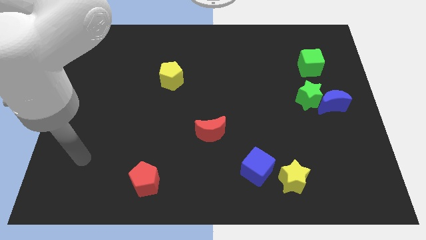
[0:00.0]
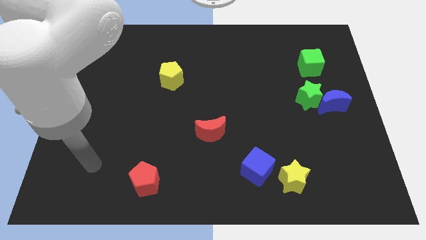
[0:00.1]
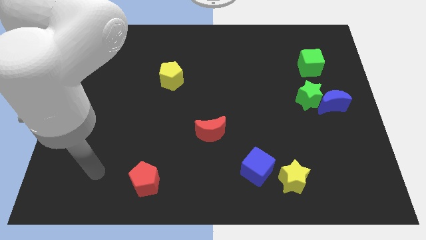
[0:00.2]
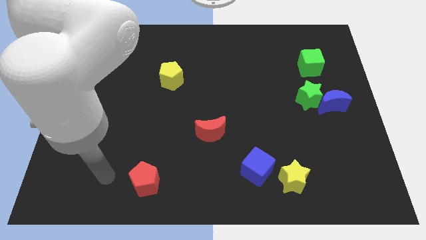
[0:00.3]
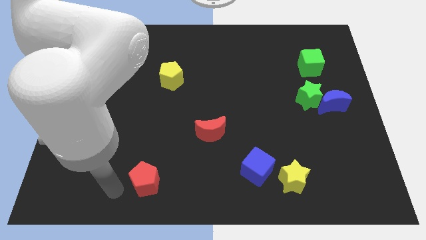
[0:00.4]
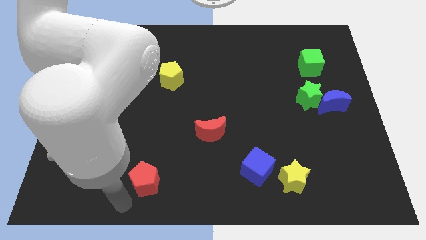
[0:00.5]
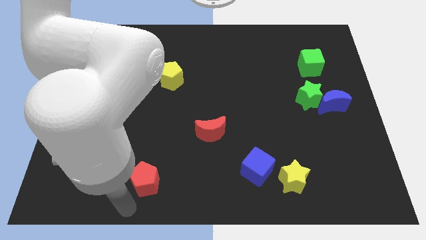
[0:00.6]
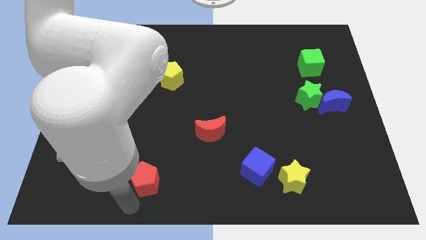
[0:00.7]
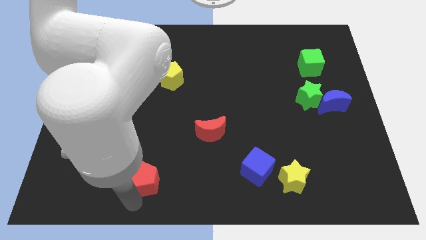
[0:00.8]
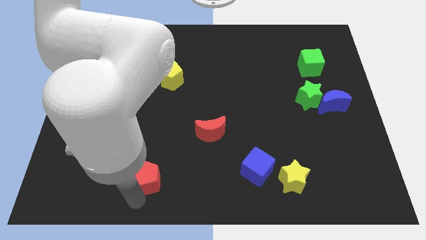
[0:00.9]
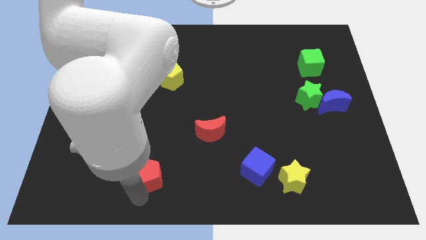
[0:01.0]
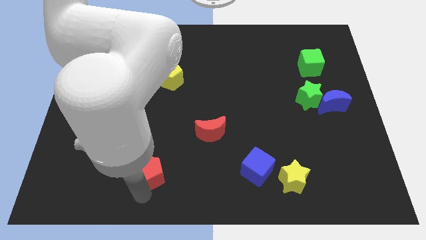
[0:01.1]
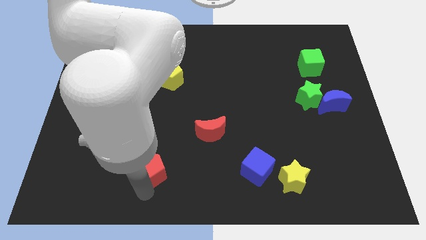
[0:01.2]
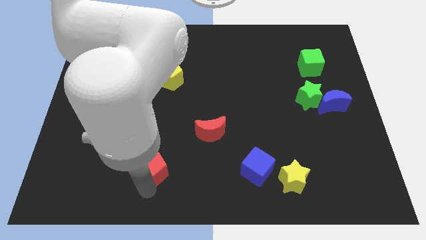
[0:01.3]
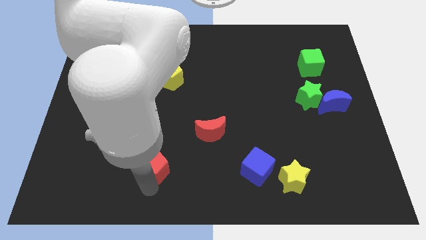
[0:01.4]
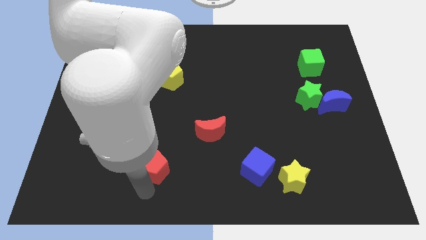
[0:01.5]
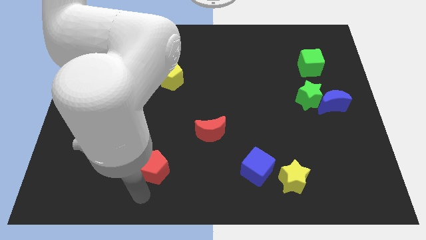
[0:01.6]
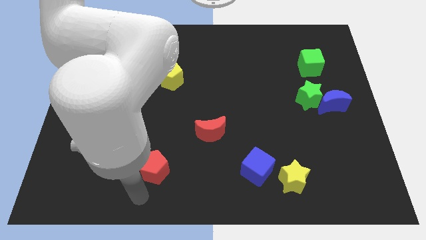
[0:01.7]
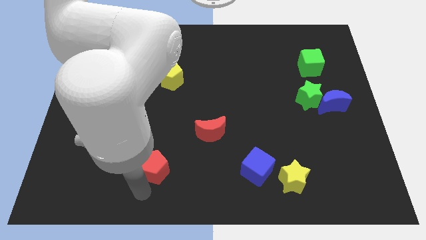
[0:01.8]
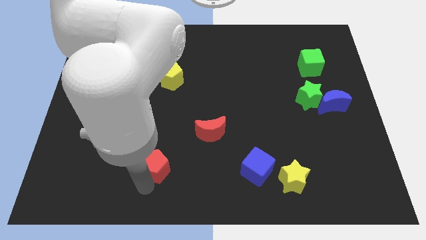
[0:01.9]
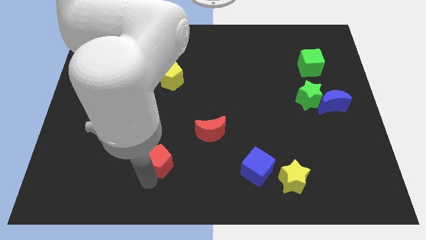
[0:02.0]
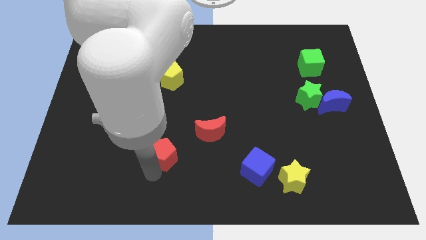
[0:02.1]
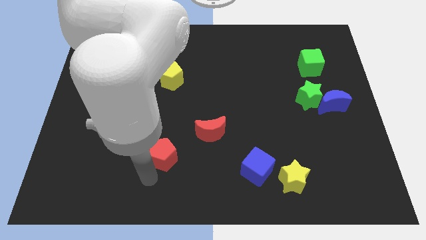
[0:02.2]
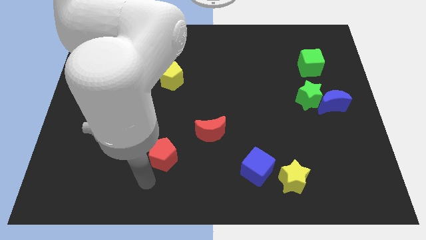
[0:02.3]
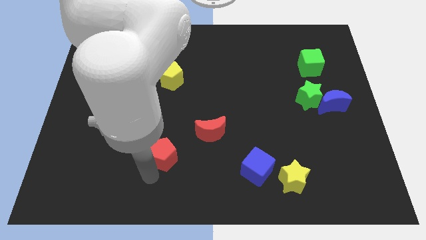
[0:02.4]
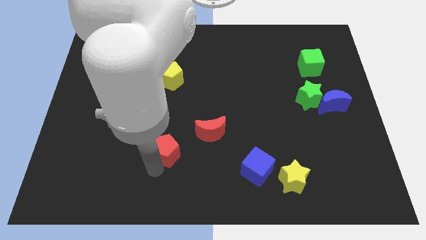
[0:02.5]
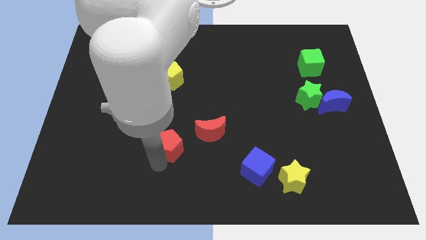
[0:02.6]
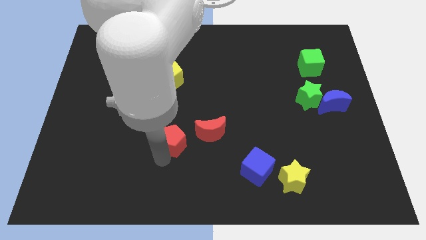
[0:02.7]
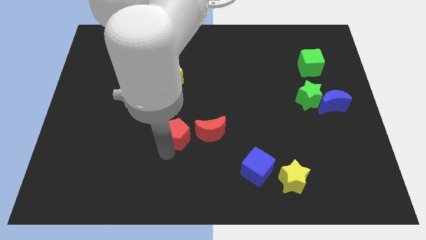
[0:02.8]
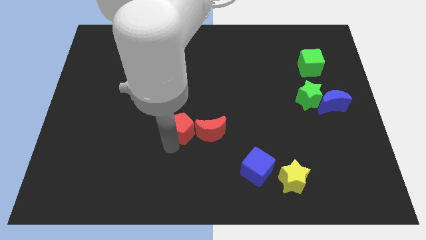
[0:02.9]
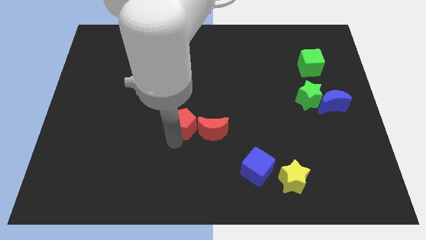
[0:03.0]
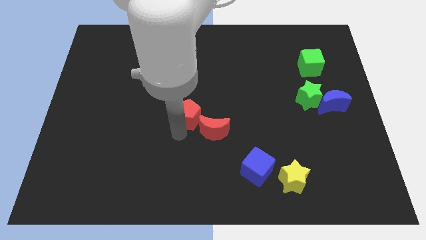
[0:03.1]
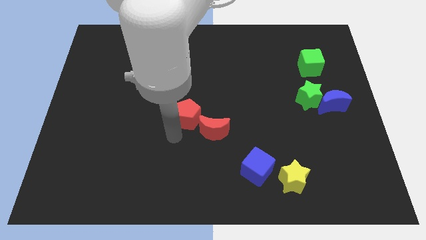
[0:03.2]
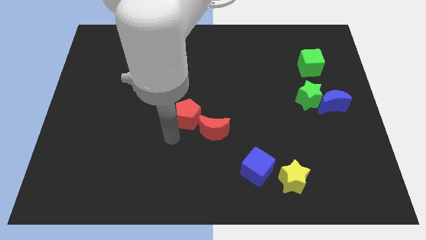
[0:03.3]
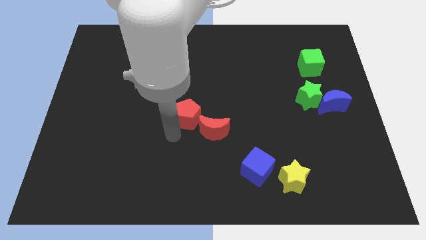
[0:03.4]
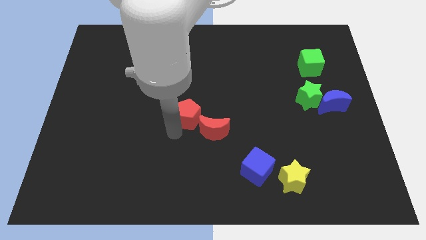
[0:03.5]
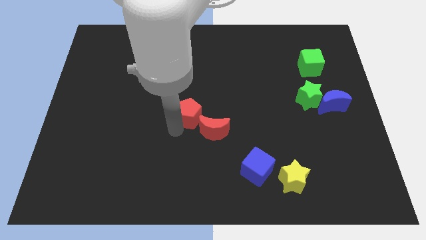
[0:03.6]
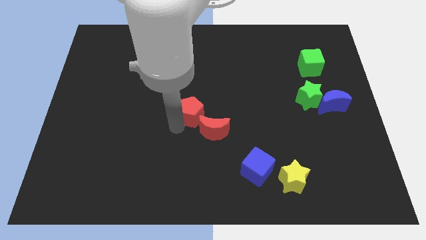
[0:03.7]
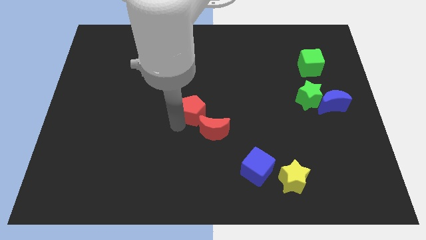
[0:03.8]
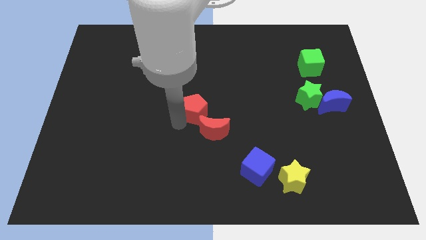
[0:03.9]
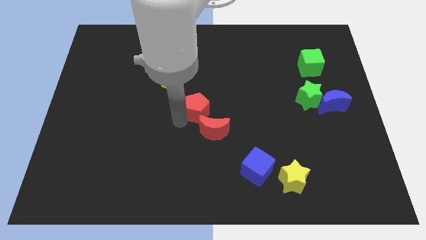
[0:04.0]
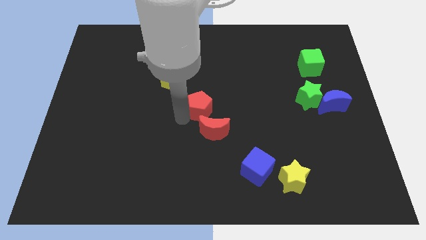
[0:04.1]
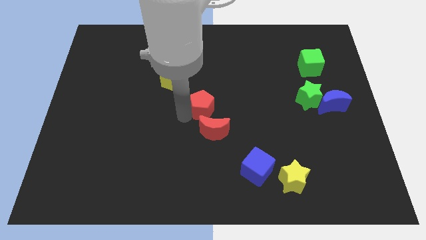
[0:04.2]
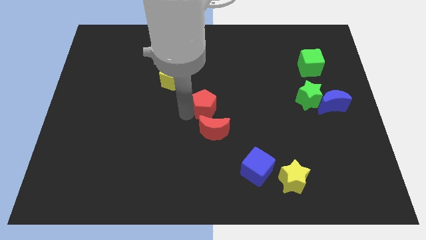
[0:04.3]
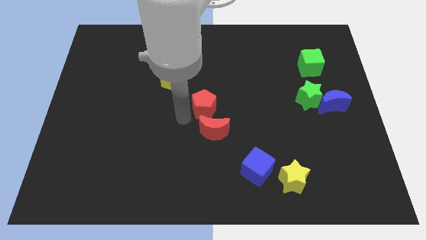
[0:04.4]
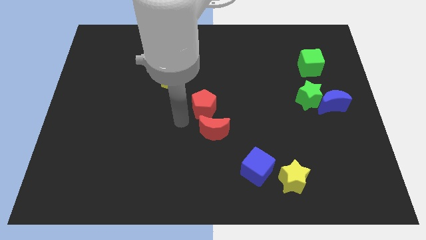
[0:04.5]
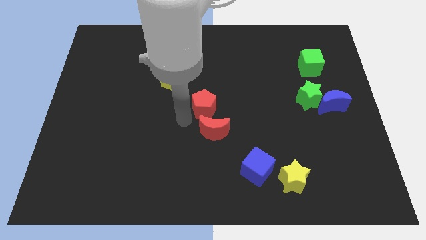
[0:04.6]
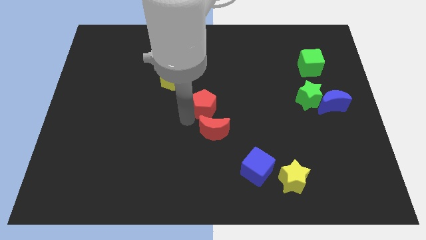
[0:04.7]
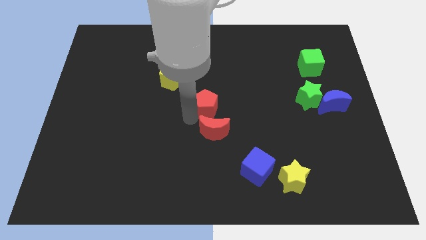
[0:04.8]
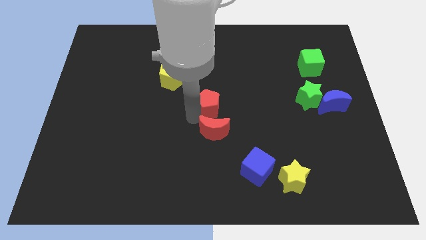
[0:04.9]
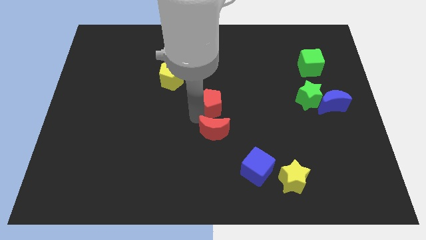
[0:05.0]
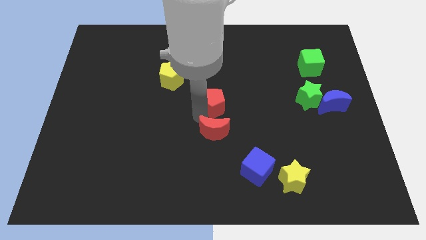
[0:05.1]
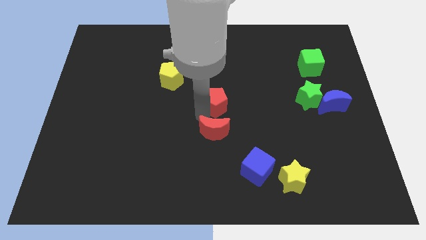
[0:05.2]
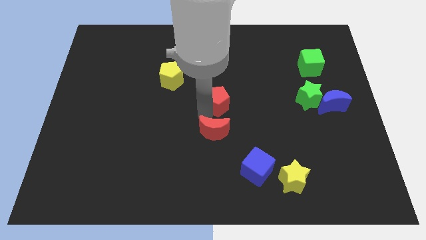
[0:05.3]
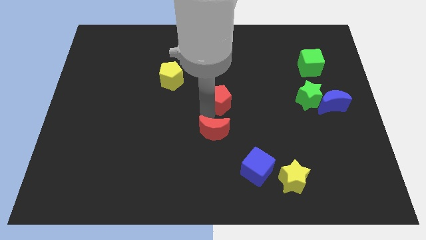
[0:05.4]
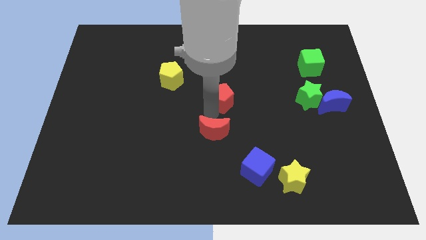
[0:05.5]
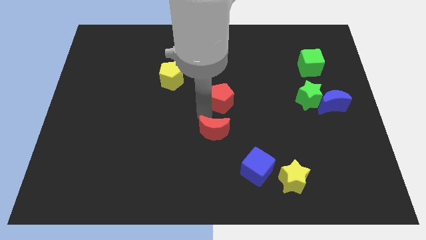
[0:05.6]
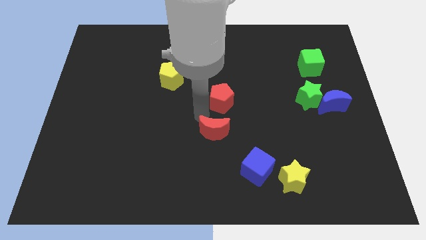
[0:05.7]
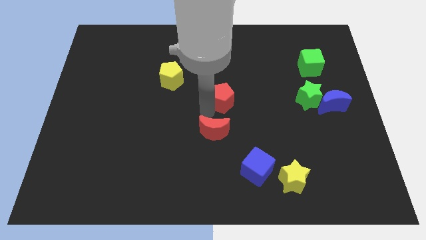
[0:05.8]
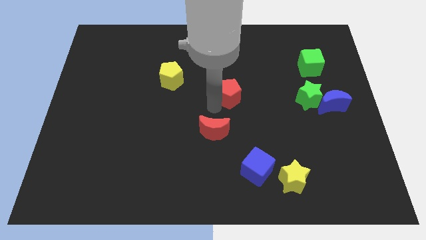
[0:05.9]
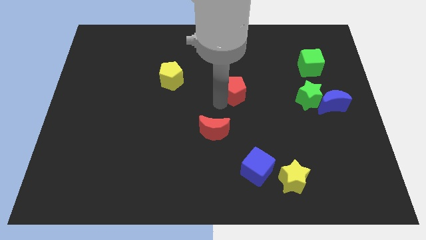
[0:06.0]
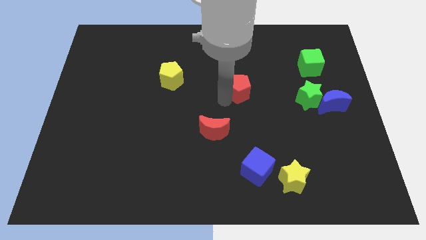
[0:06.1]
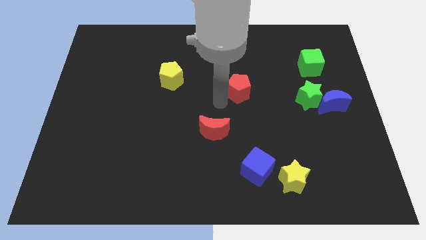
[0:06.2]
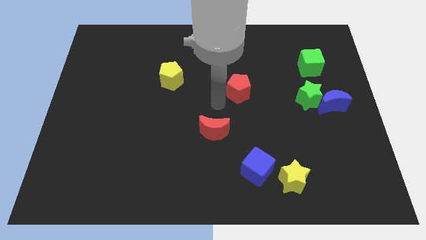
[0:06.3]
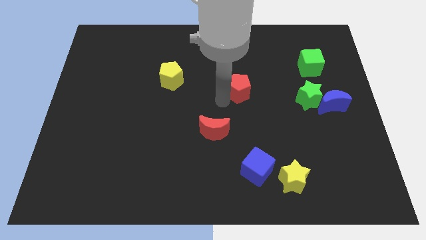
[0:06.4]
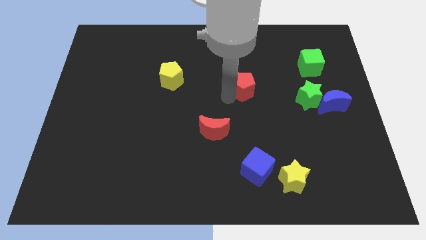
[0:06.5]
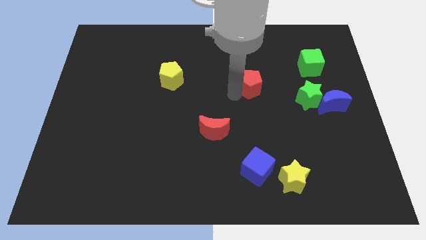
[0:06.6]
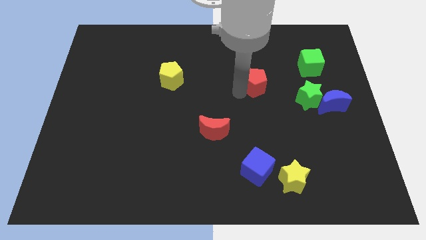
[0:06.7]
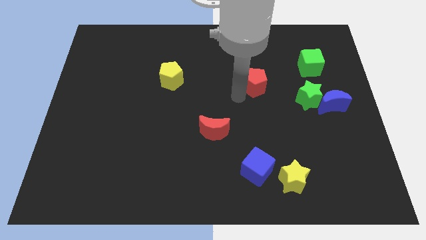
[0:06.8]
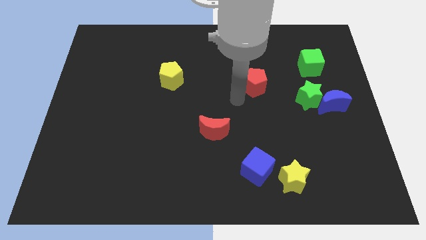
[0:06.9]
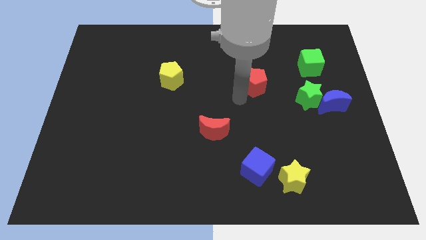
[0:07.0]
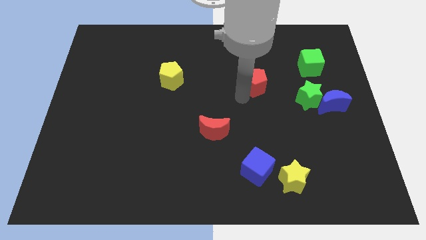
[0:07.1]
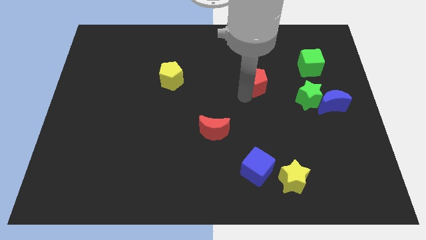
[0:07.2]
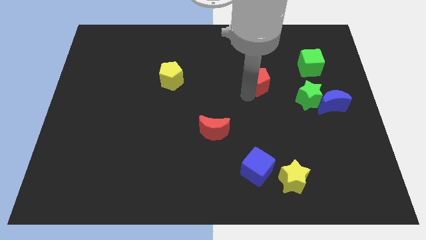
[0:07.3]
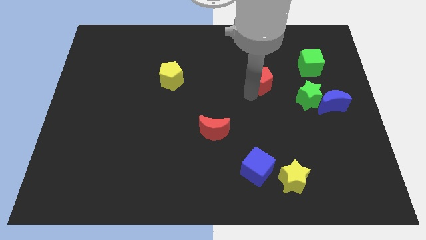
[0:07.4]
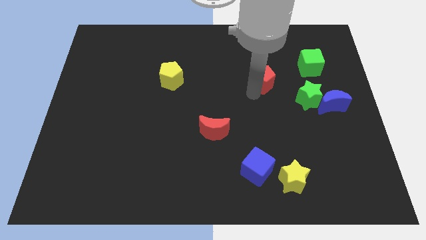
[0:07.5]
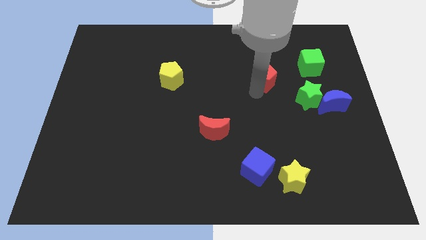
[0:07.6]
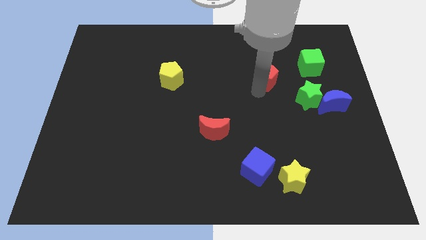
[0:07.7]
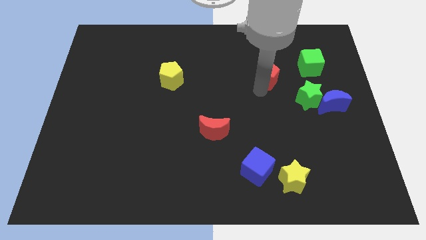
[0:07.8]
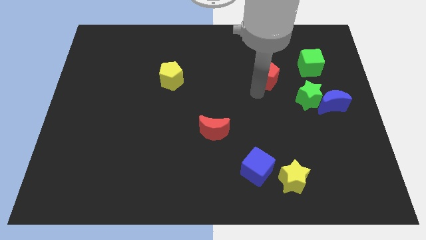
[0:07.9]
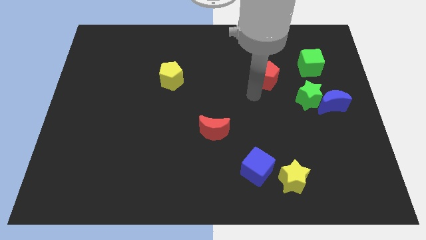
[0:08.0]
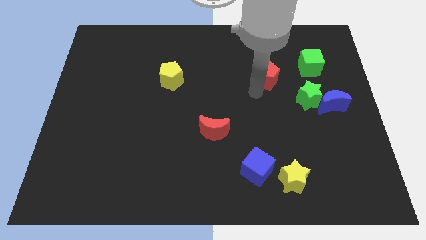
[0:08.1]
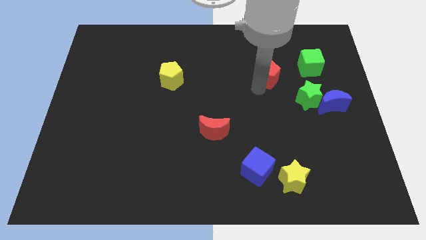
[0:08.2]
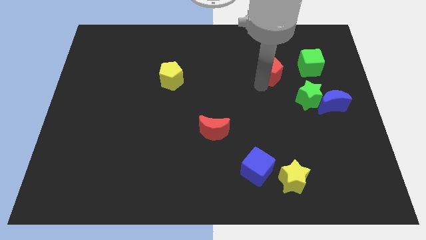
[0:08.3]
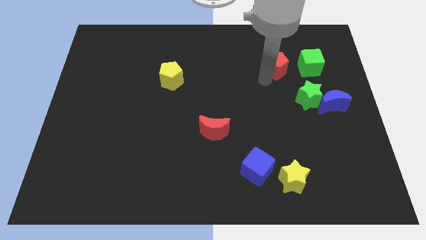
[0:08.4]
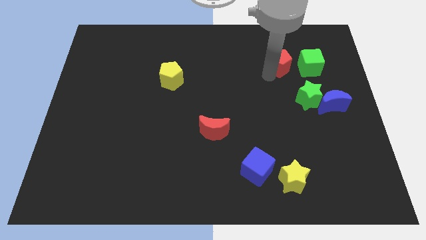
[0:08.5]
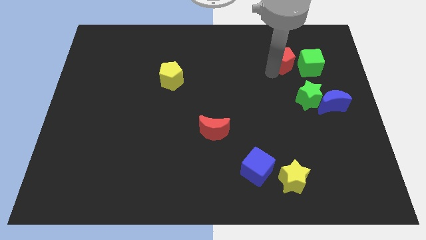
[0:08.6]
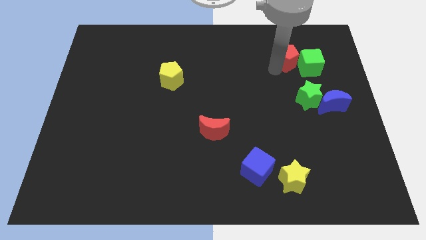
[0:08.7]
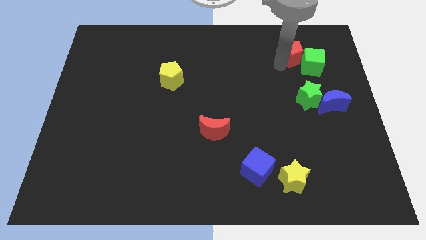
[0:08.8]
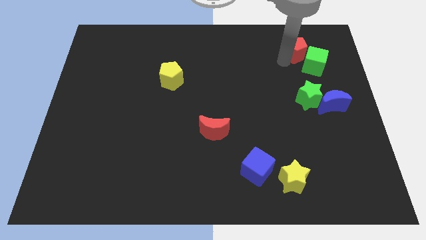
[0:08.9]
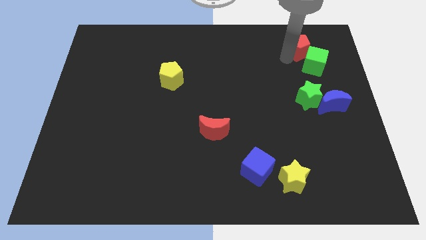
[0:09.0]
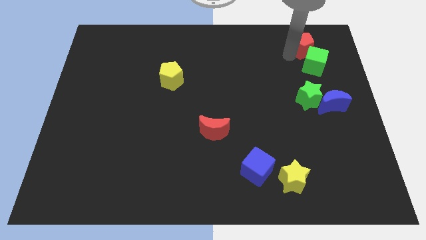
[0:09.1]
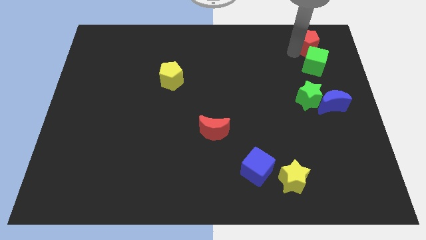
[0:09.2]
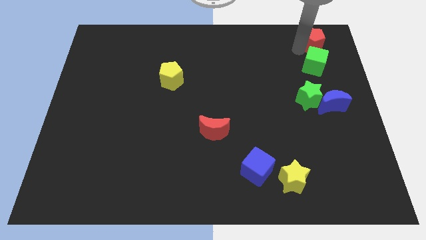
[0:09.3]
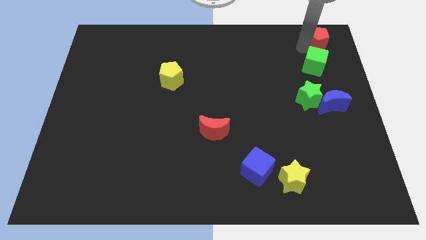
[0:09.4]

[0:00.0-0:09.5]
move the red pentagon to the top right
